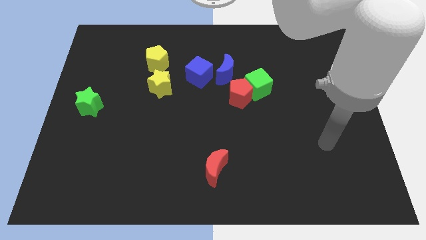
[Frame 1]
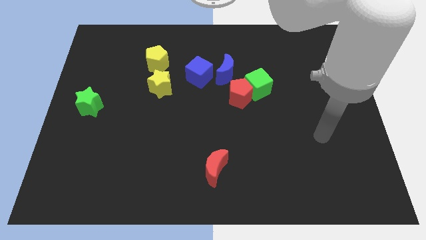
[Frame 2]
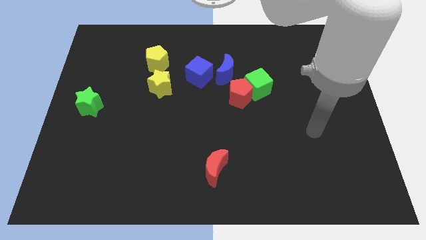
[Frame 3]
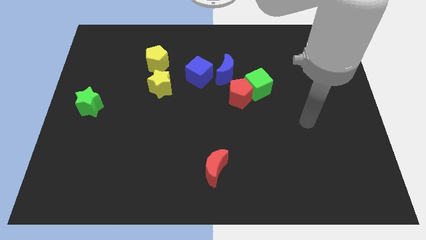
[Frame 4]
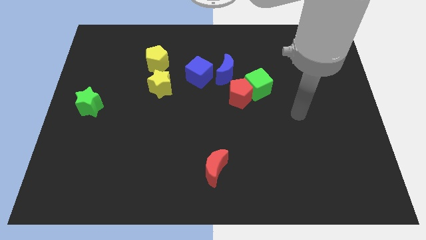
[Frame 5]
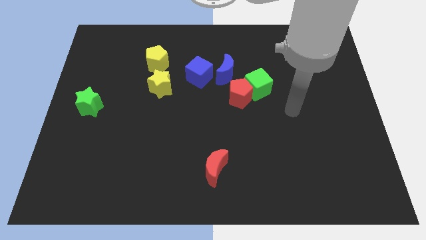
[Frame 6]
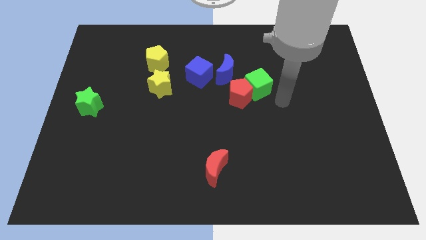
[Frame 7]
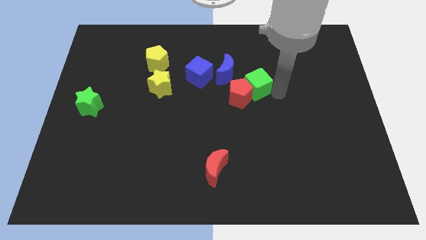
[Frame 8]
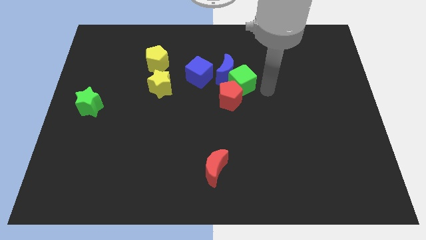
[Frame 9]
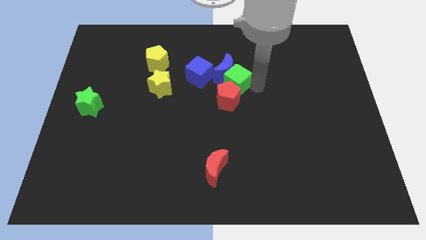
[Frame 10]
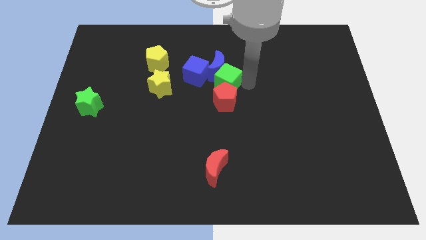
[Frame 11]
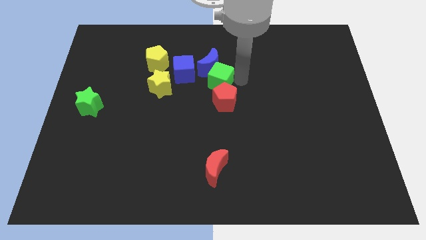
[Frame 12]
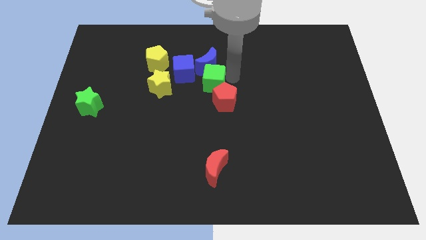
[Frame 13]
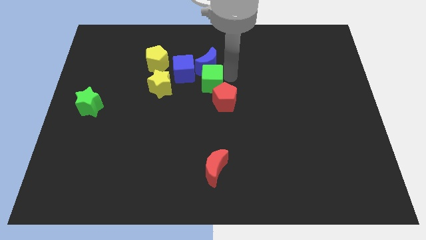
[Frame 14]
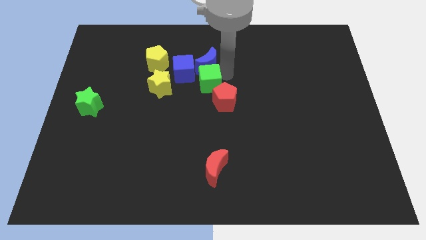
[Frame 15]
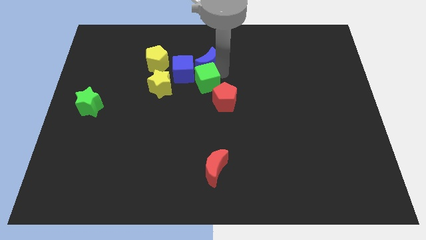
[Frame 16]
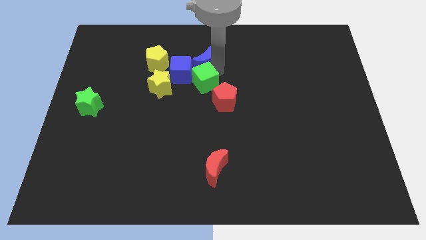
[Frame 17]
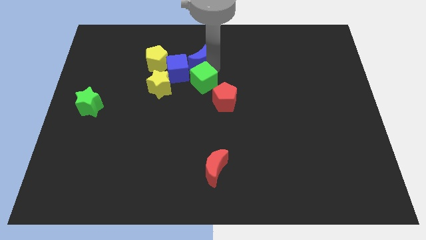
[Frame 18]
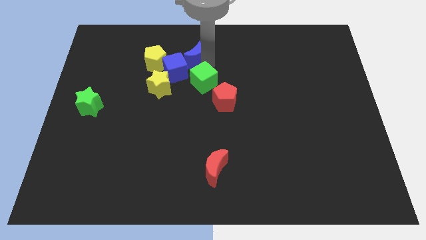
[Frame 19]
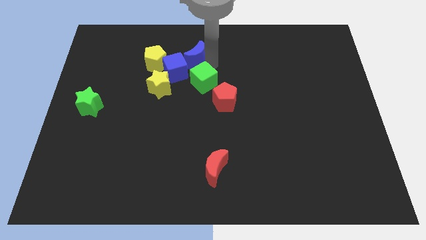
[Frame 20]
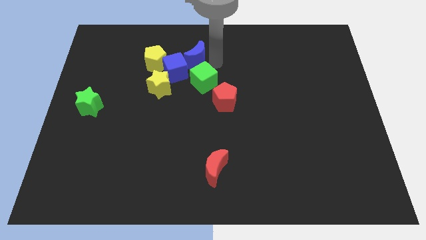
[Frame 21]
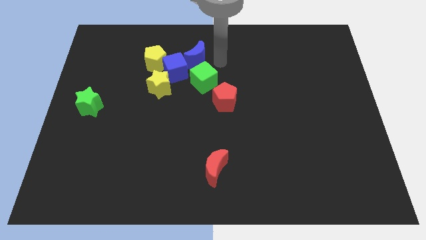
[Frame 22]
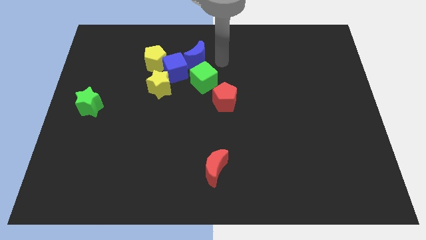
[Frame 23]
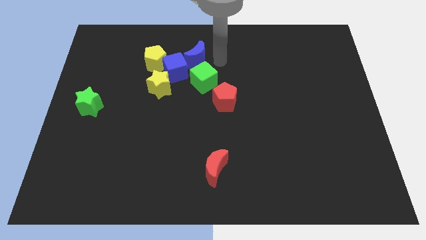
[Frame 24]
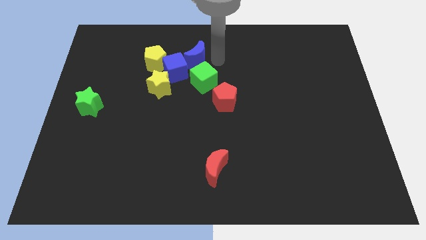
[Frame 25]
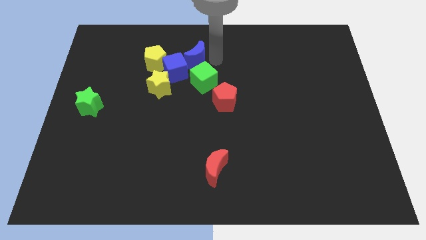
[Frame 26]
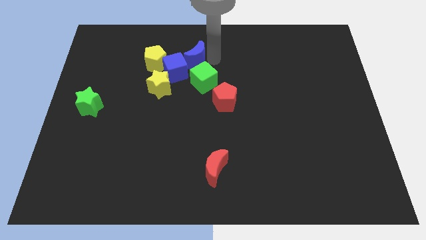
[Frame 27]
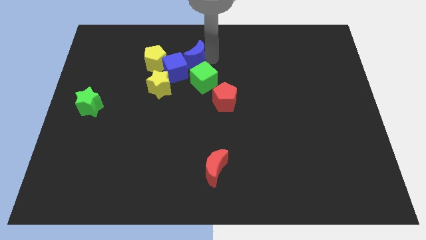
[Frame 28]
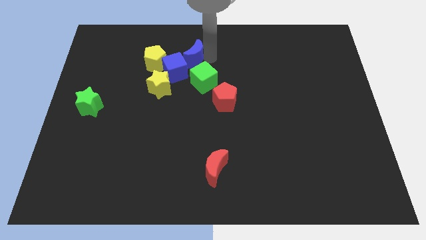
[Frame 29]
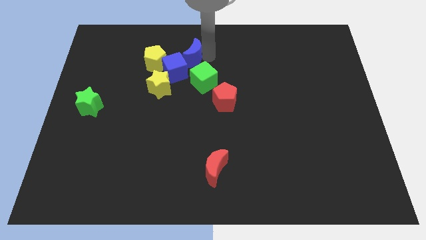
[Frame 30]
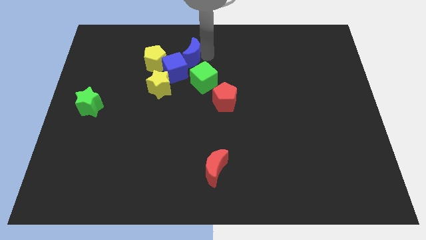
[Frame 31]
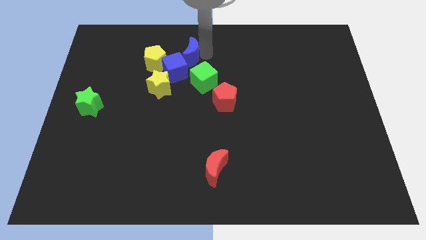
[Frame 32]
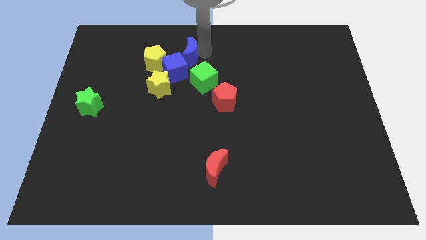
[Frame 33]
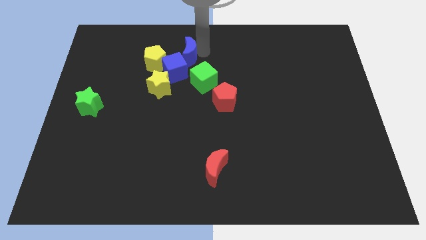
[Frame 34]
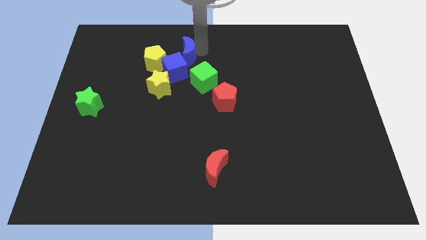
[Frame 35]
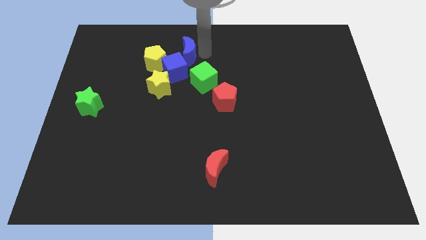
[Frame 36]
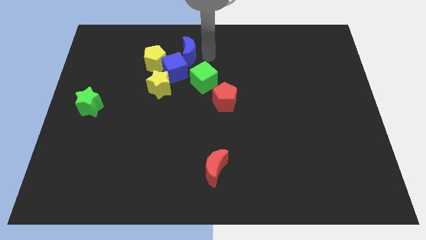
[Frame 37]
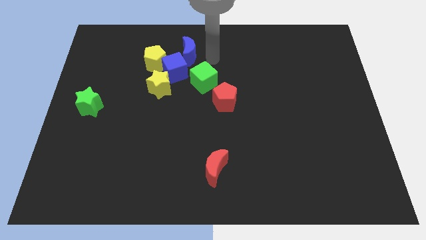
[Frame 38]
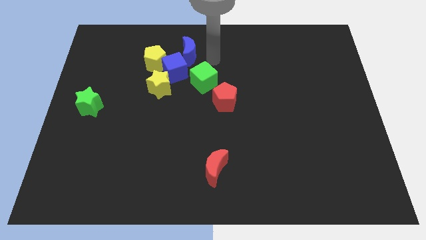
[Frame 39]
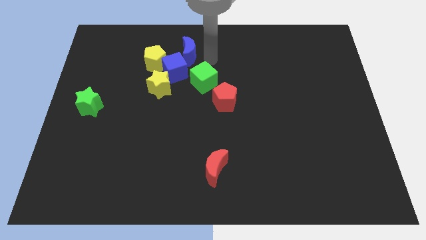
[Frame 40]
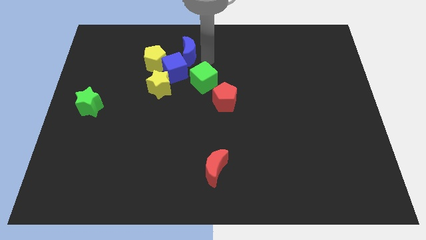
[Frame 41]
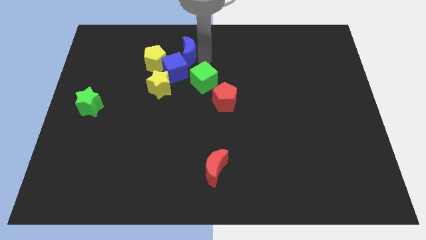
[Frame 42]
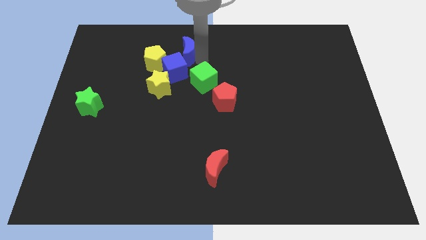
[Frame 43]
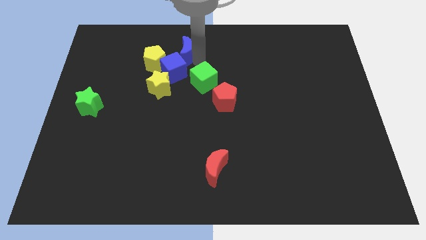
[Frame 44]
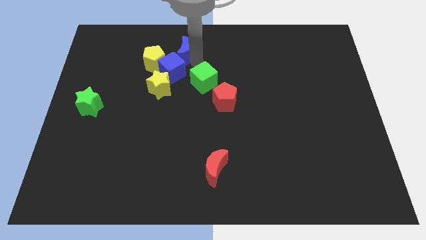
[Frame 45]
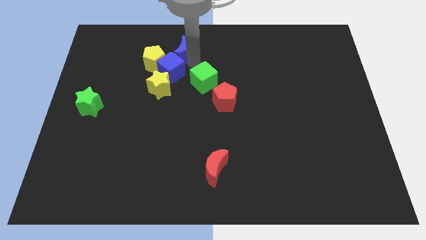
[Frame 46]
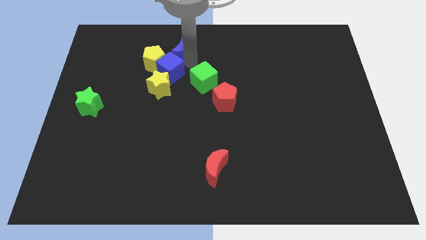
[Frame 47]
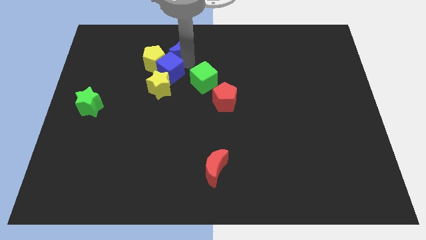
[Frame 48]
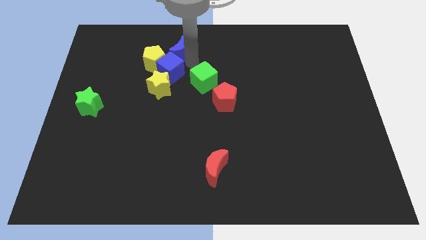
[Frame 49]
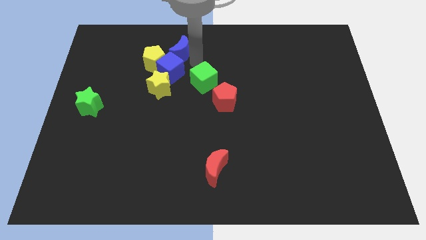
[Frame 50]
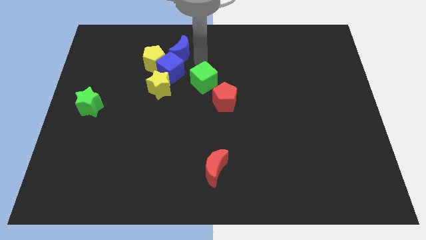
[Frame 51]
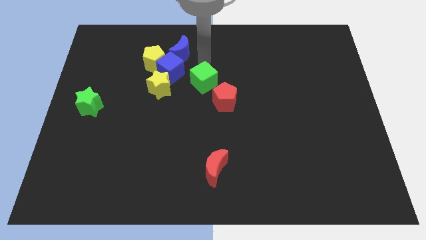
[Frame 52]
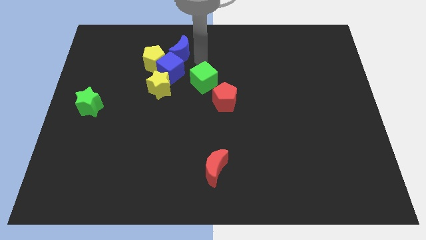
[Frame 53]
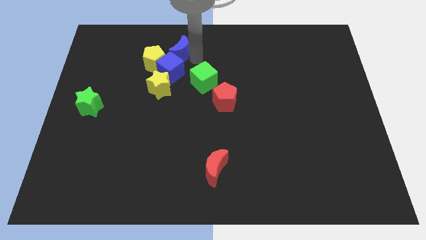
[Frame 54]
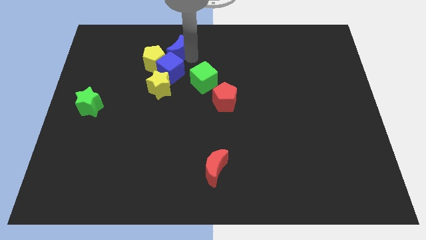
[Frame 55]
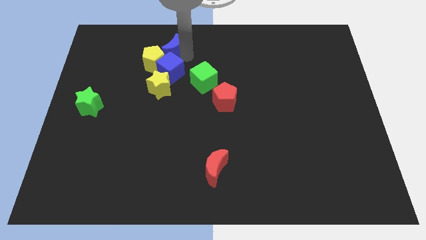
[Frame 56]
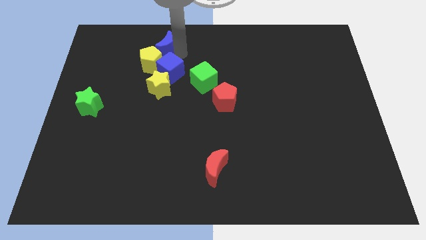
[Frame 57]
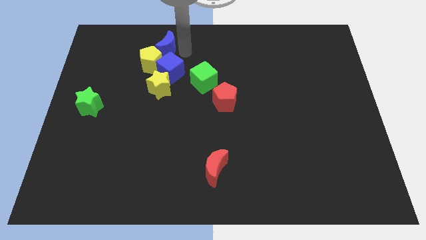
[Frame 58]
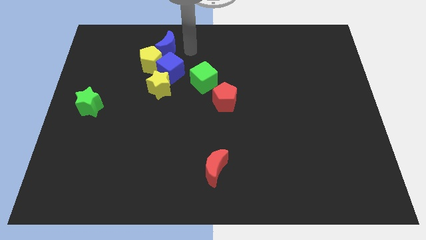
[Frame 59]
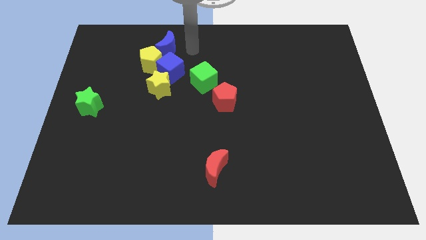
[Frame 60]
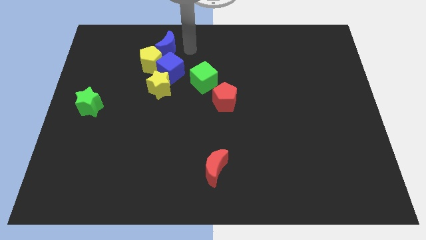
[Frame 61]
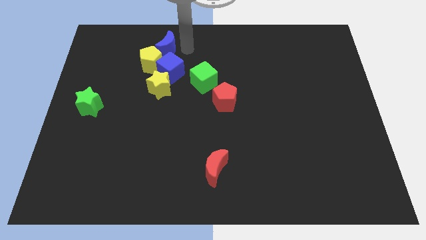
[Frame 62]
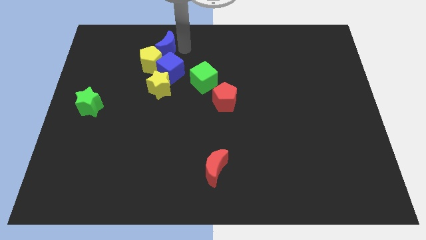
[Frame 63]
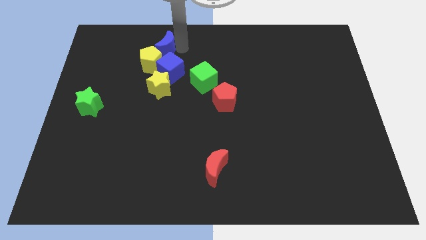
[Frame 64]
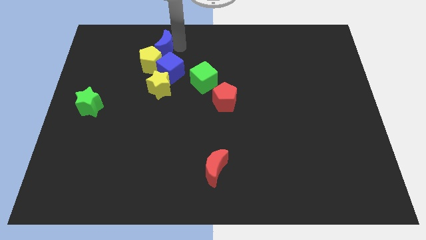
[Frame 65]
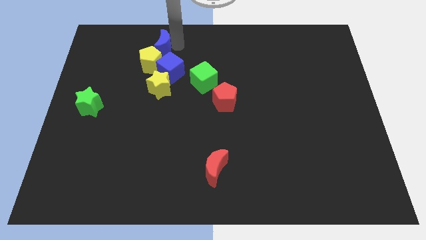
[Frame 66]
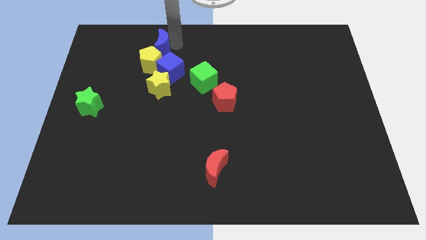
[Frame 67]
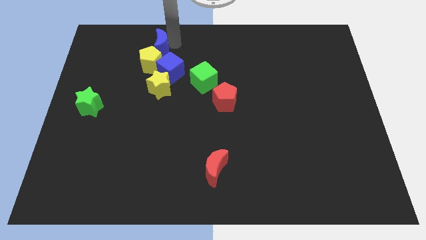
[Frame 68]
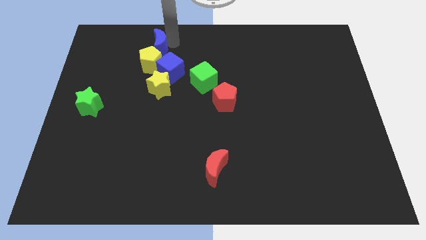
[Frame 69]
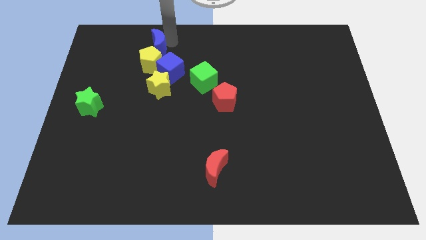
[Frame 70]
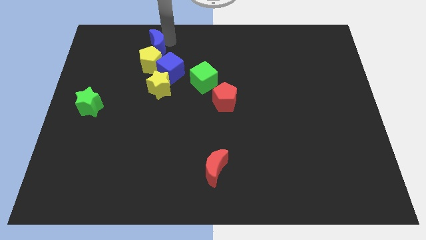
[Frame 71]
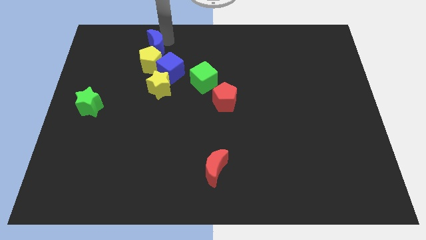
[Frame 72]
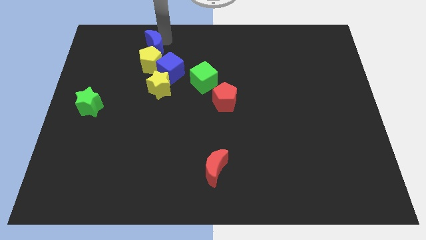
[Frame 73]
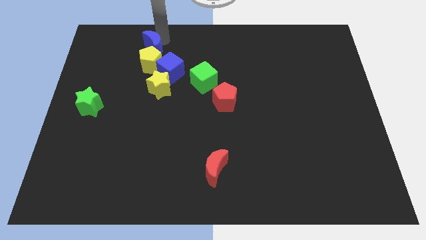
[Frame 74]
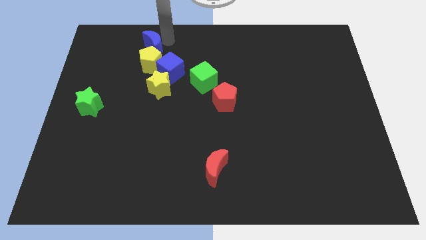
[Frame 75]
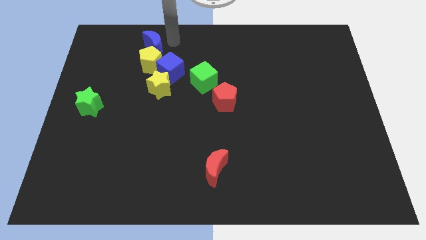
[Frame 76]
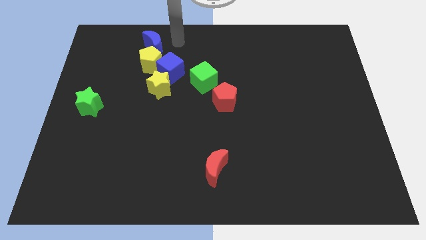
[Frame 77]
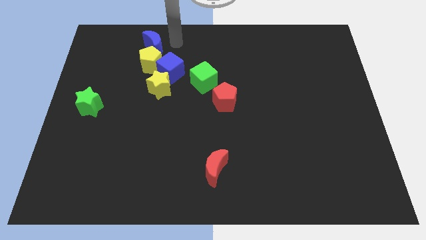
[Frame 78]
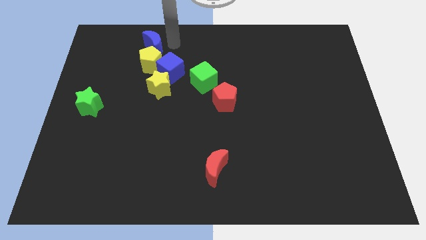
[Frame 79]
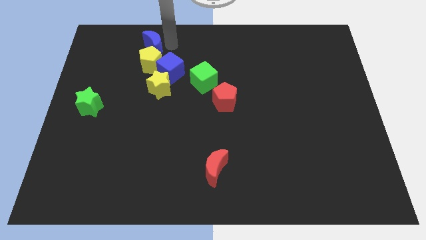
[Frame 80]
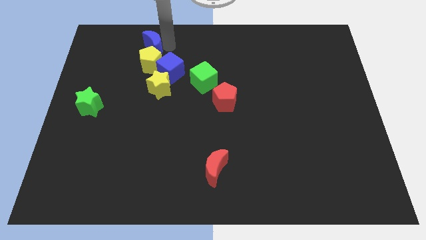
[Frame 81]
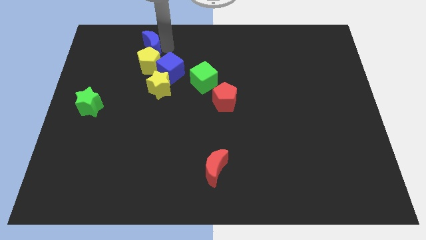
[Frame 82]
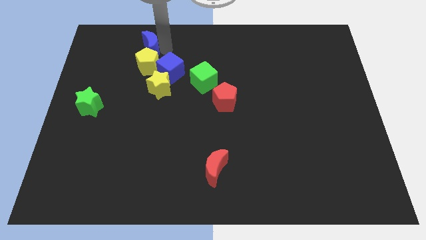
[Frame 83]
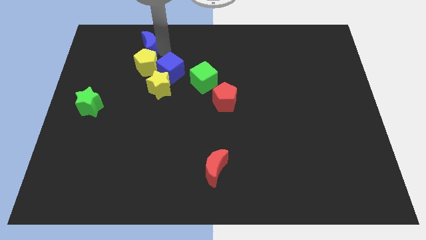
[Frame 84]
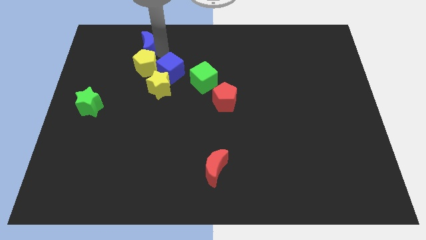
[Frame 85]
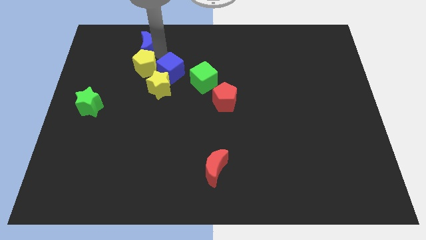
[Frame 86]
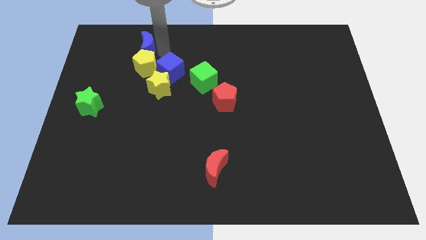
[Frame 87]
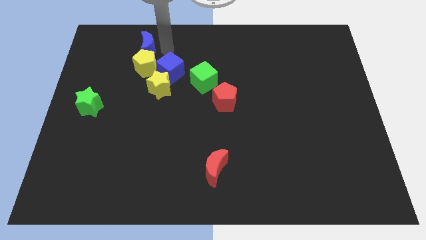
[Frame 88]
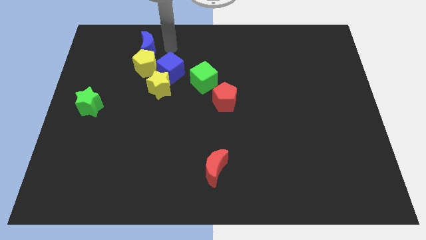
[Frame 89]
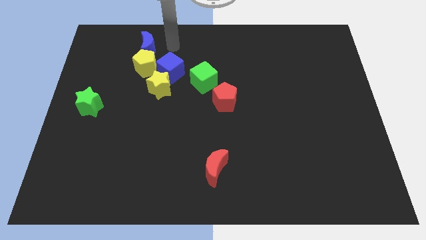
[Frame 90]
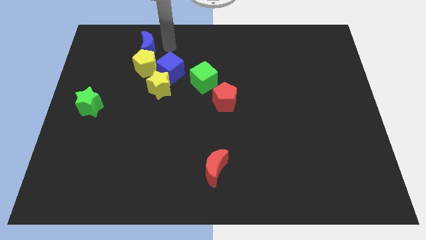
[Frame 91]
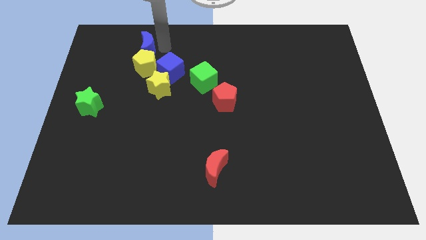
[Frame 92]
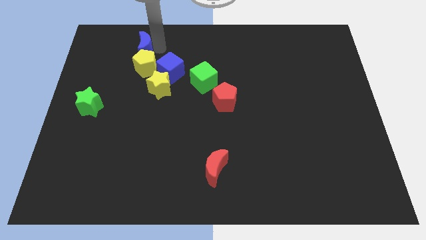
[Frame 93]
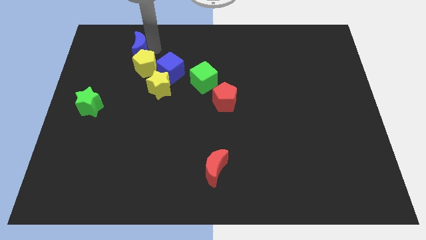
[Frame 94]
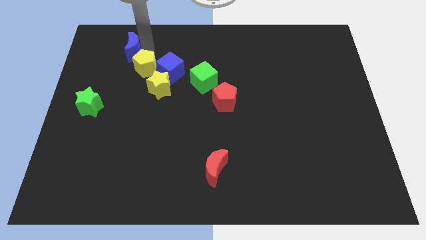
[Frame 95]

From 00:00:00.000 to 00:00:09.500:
move the blue moon left
